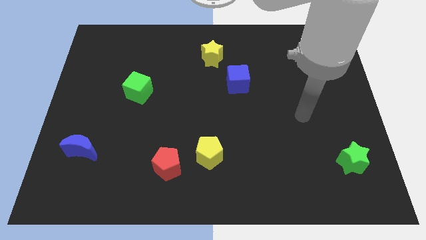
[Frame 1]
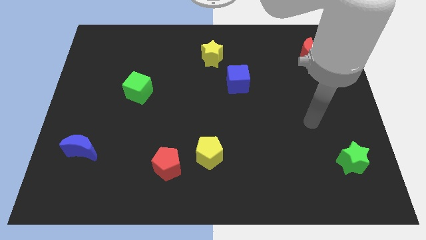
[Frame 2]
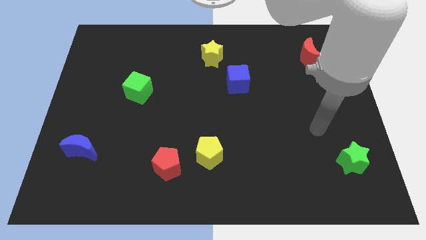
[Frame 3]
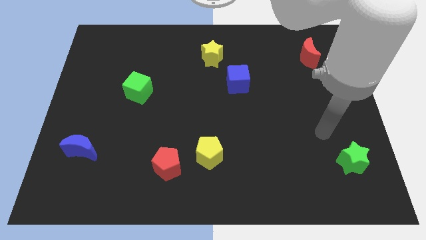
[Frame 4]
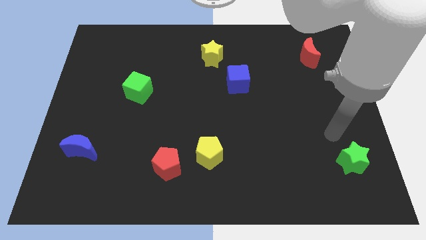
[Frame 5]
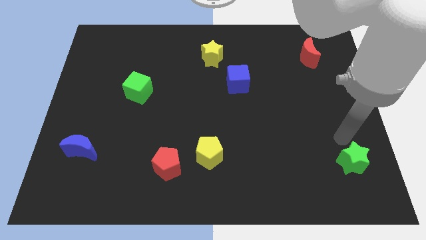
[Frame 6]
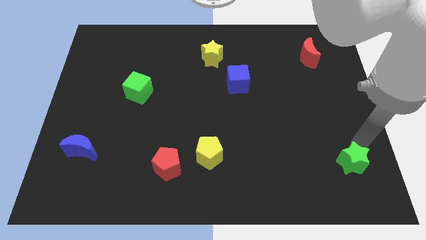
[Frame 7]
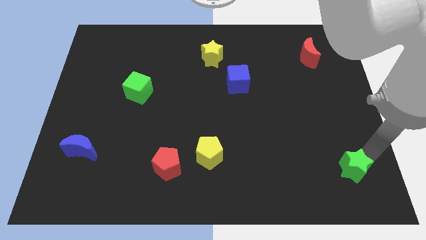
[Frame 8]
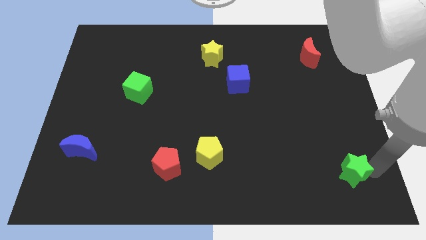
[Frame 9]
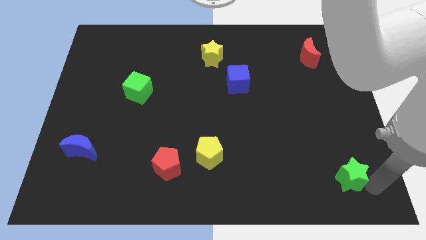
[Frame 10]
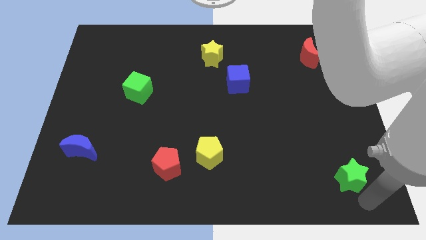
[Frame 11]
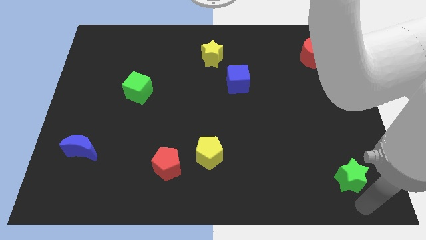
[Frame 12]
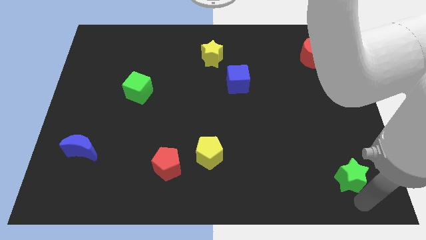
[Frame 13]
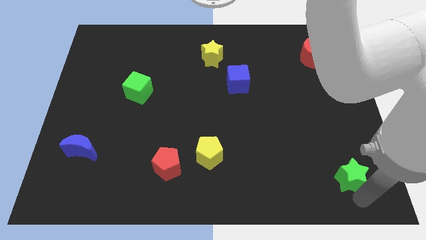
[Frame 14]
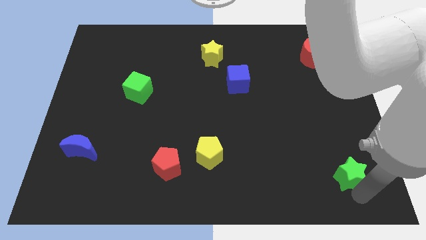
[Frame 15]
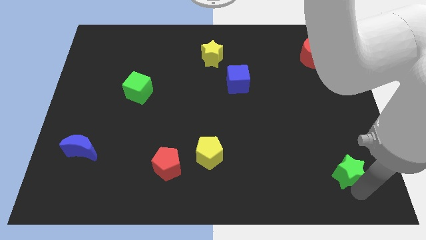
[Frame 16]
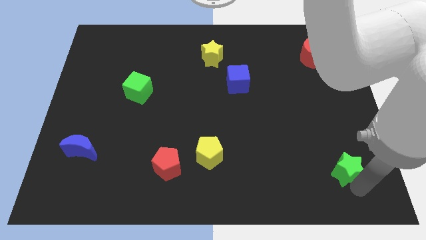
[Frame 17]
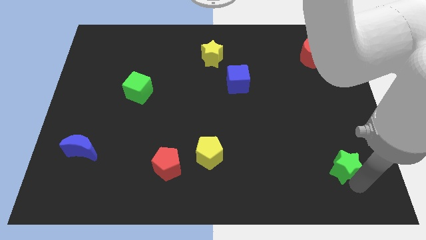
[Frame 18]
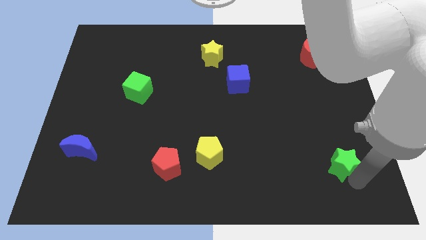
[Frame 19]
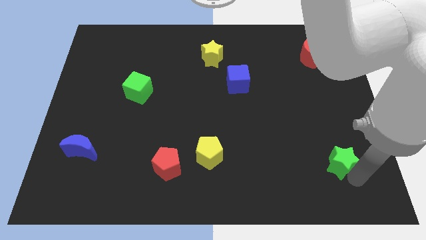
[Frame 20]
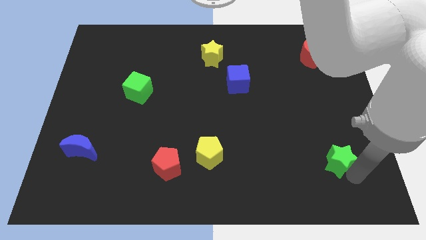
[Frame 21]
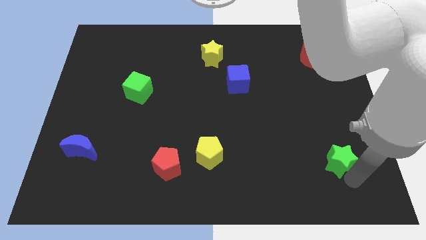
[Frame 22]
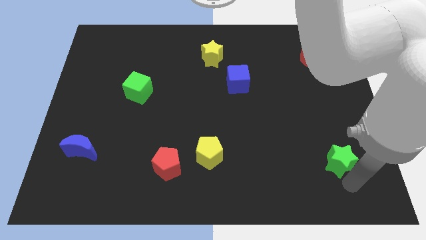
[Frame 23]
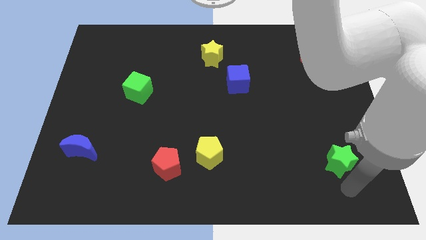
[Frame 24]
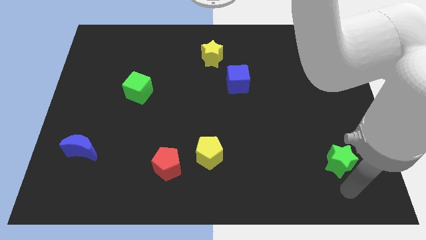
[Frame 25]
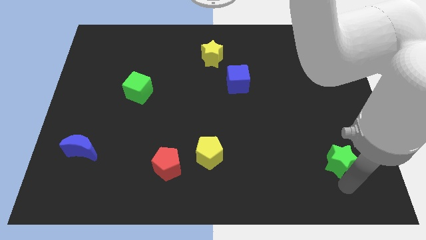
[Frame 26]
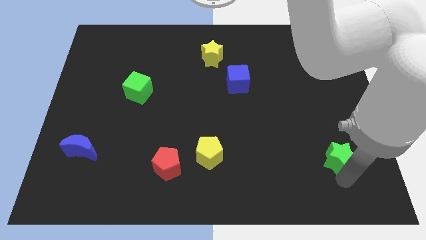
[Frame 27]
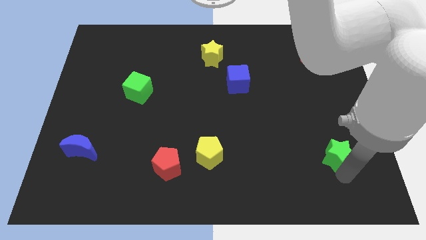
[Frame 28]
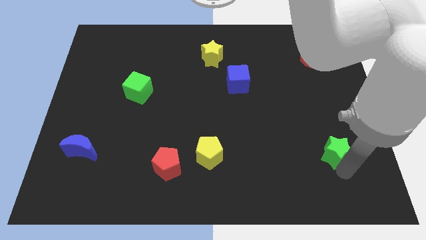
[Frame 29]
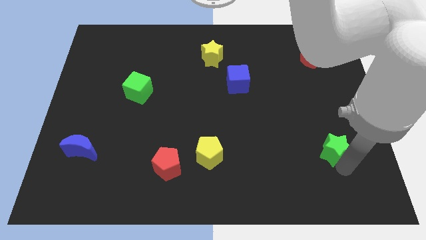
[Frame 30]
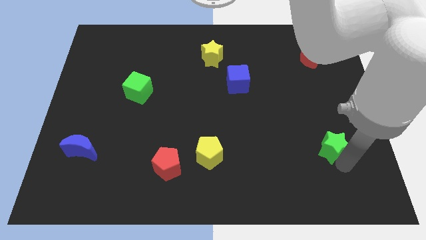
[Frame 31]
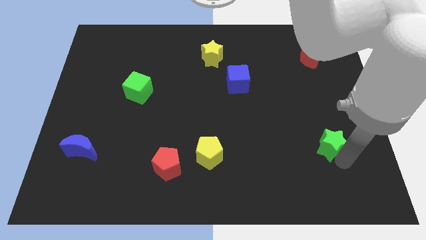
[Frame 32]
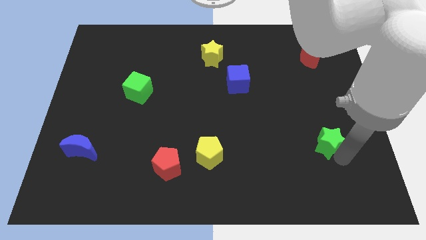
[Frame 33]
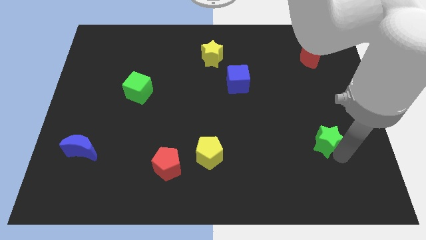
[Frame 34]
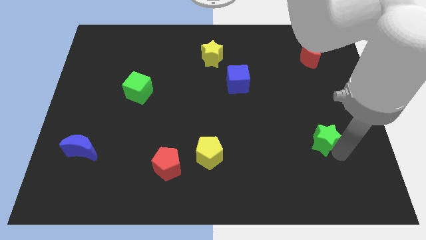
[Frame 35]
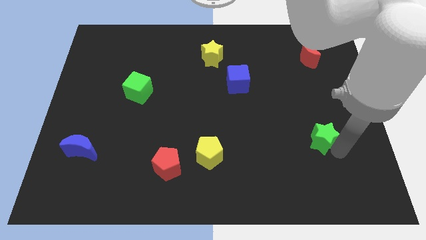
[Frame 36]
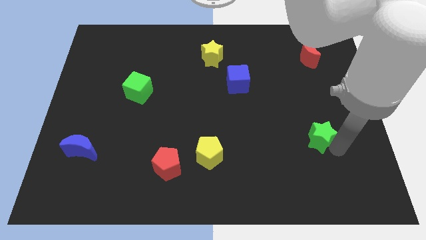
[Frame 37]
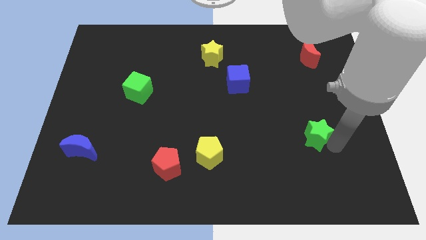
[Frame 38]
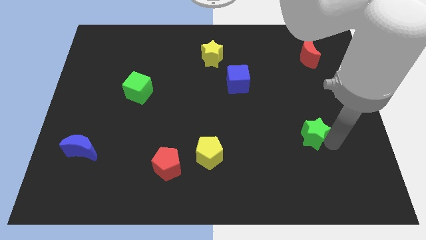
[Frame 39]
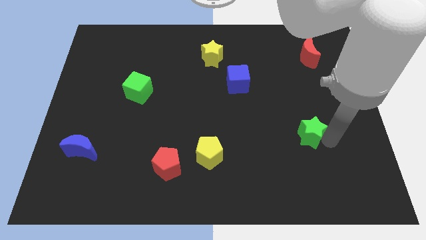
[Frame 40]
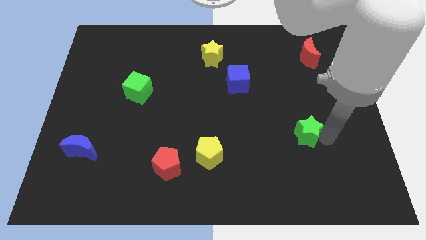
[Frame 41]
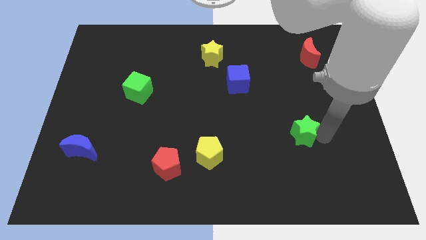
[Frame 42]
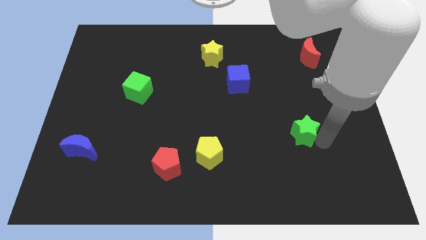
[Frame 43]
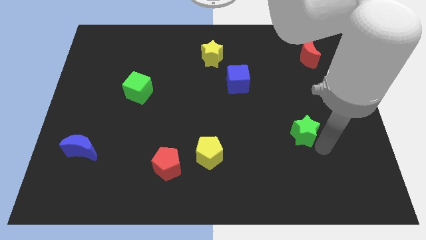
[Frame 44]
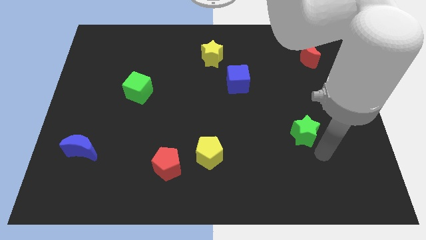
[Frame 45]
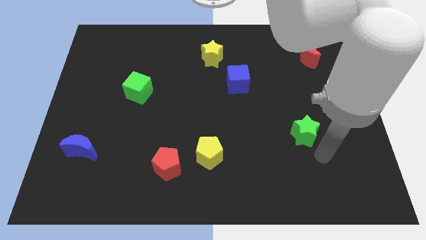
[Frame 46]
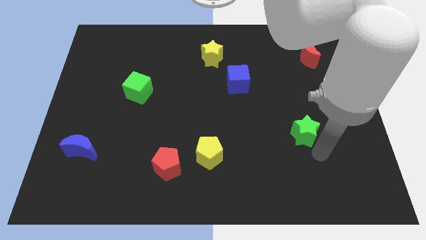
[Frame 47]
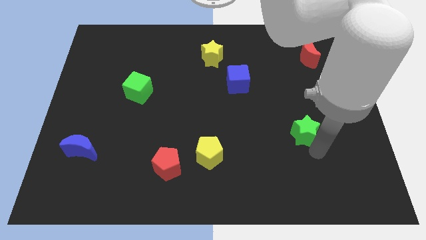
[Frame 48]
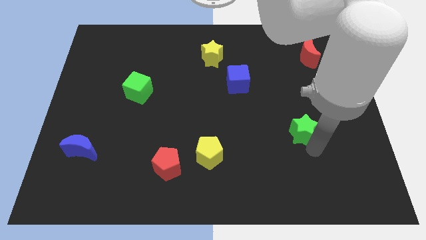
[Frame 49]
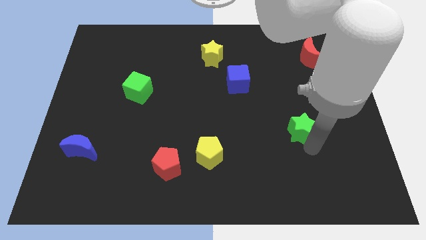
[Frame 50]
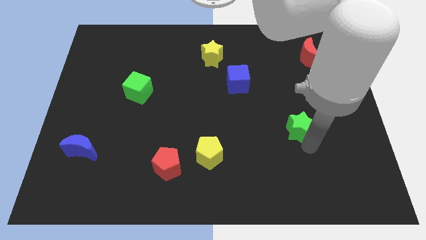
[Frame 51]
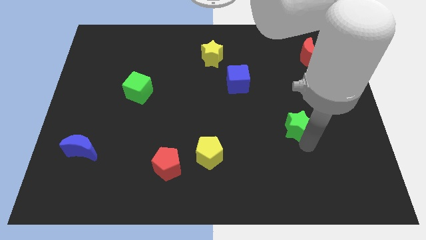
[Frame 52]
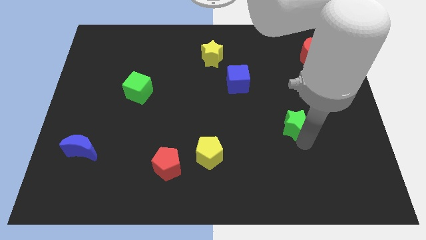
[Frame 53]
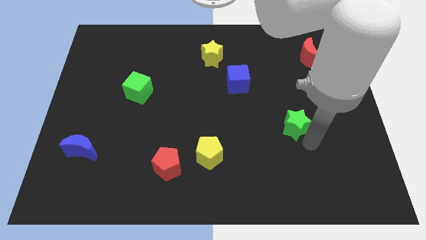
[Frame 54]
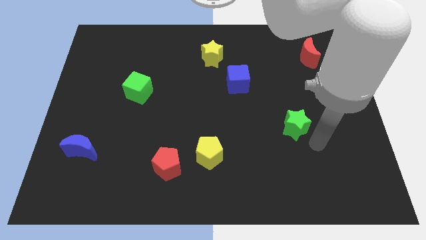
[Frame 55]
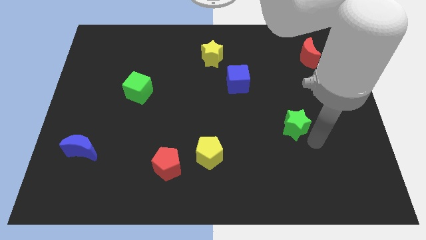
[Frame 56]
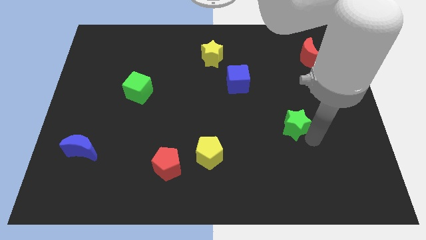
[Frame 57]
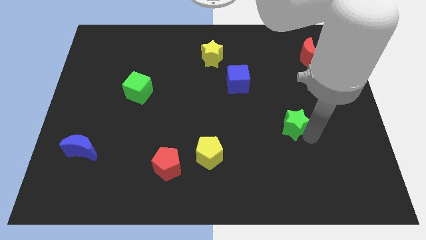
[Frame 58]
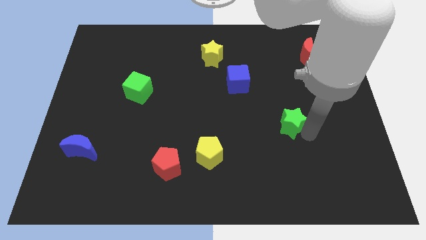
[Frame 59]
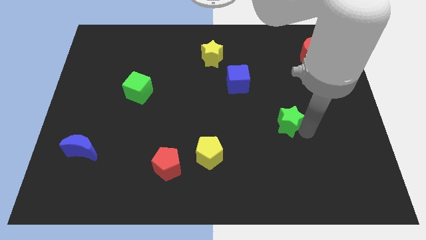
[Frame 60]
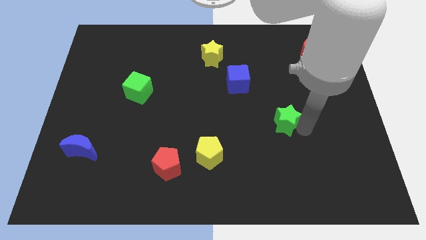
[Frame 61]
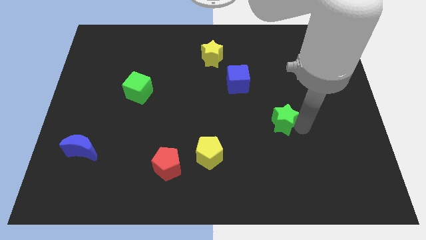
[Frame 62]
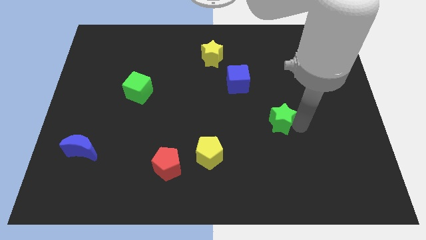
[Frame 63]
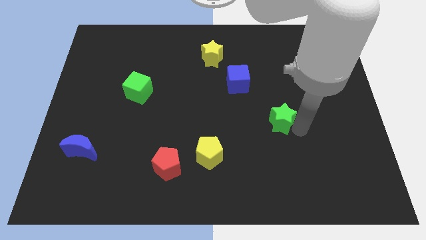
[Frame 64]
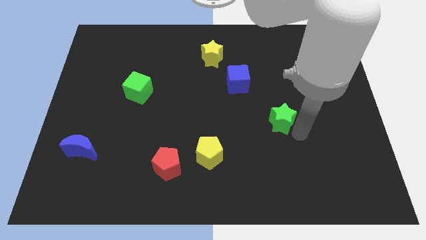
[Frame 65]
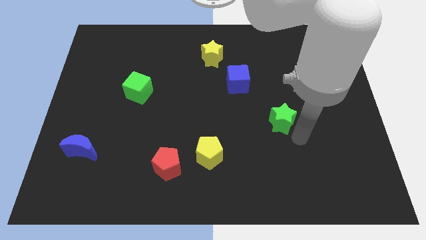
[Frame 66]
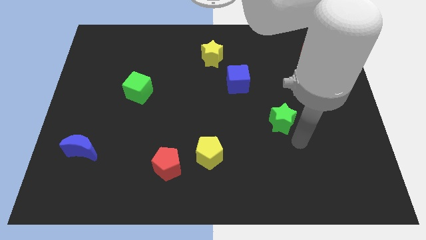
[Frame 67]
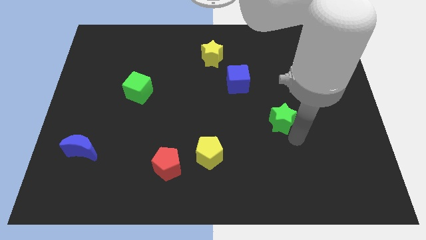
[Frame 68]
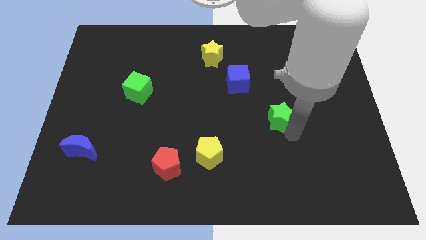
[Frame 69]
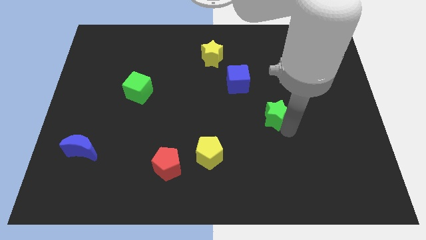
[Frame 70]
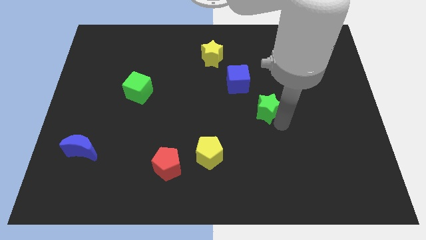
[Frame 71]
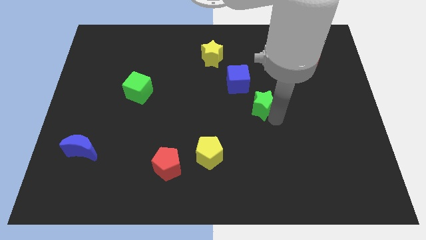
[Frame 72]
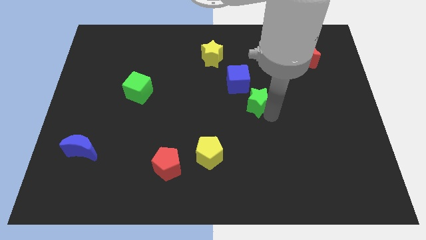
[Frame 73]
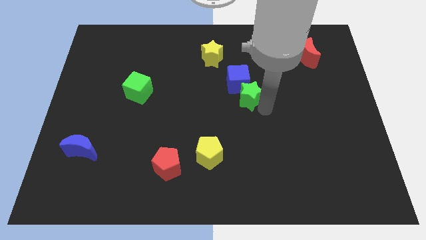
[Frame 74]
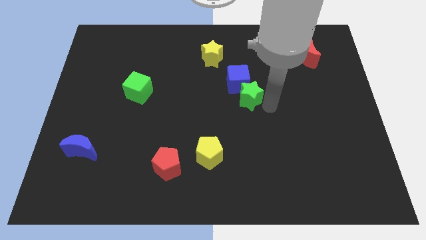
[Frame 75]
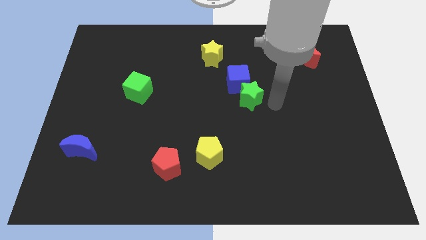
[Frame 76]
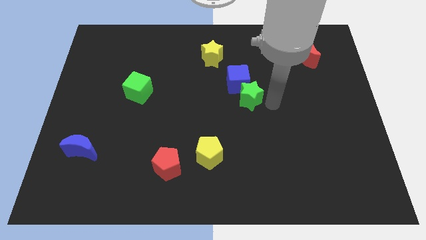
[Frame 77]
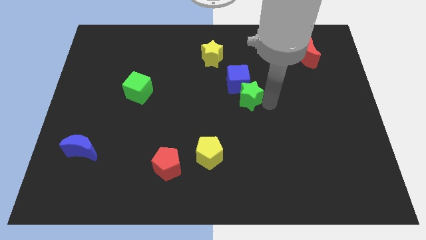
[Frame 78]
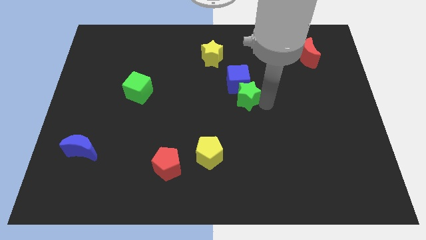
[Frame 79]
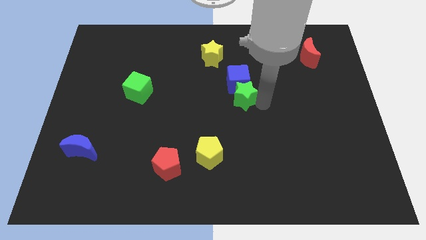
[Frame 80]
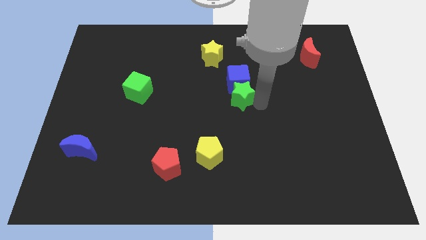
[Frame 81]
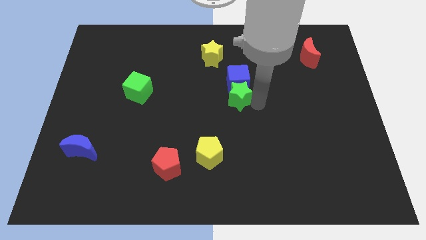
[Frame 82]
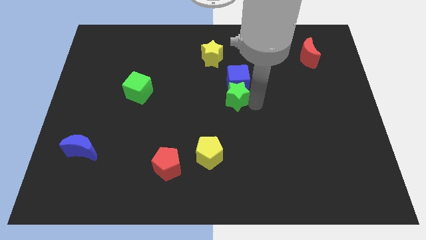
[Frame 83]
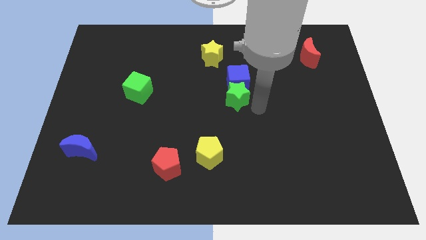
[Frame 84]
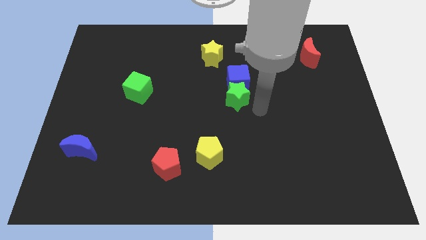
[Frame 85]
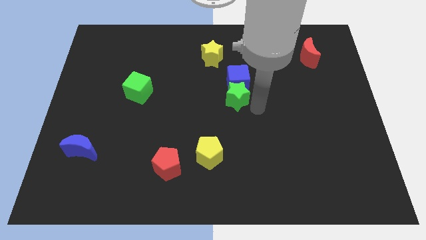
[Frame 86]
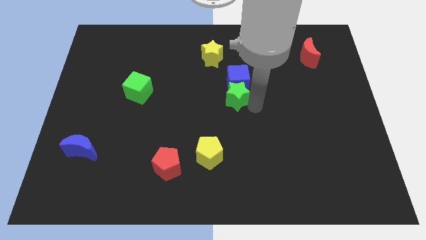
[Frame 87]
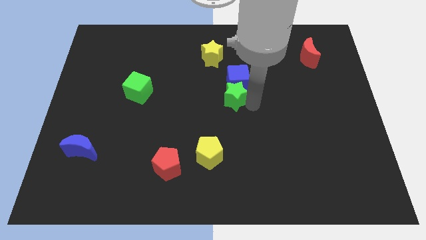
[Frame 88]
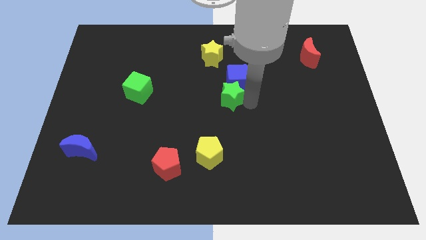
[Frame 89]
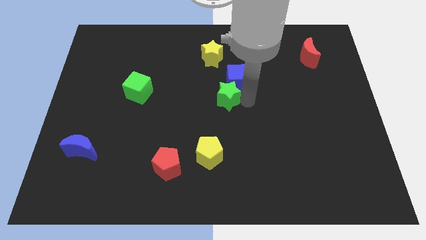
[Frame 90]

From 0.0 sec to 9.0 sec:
slide the green star to the bottom of the yellow star
